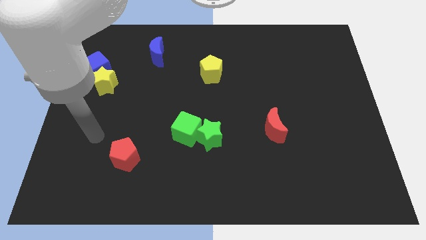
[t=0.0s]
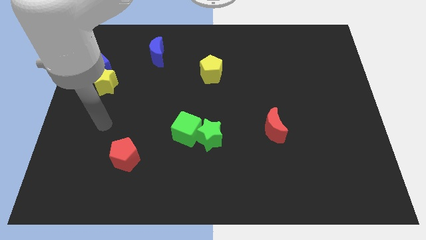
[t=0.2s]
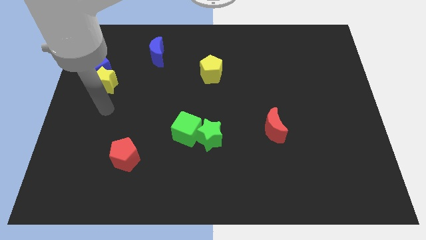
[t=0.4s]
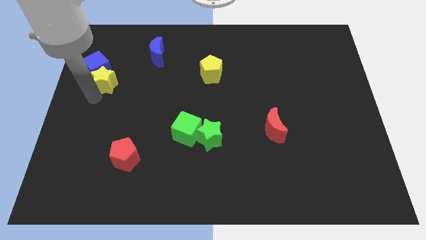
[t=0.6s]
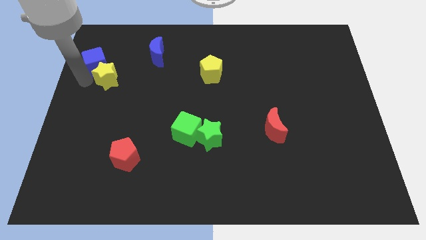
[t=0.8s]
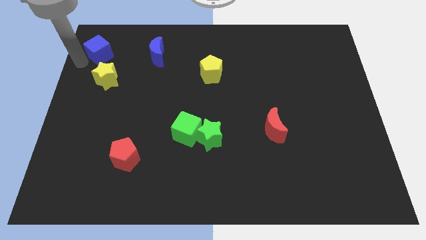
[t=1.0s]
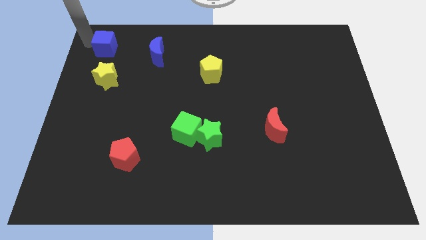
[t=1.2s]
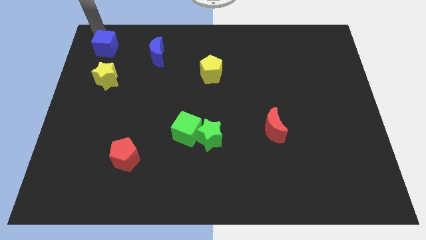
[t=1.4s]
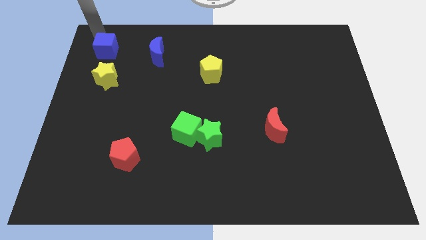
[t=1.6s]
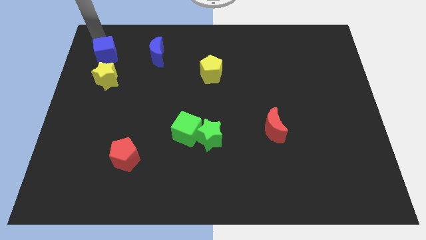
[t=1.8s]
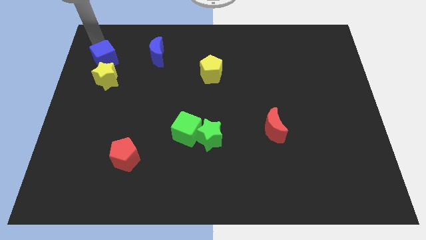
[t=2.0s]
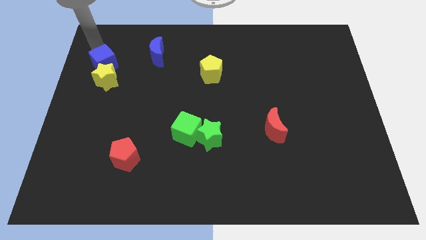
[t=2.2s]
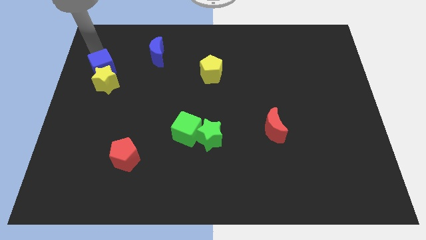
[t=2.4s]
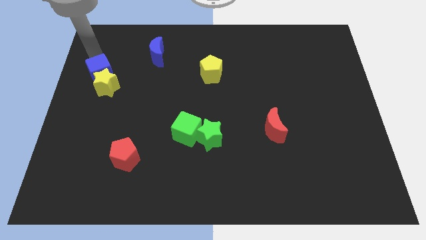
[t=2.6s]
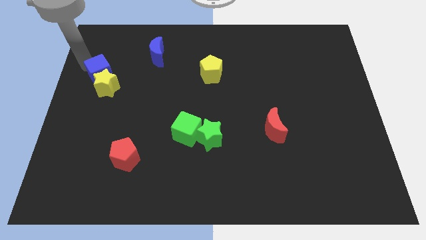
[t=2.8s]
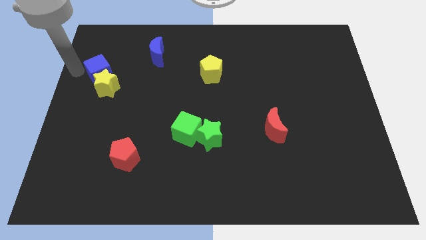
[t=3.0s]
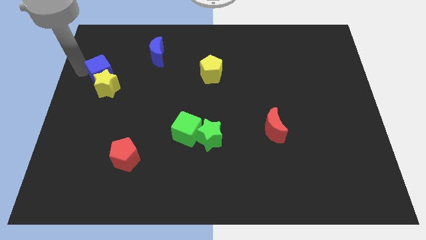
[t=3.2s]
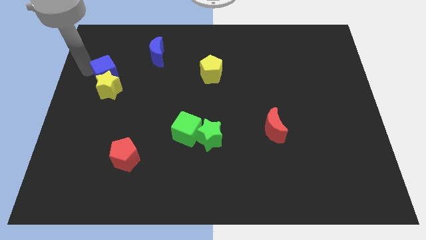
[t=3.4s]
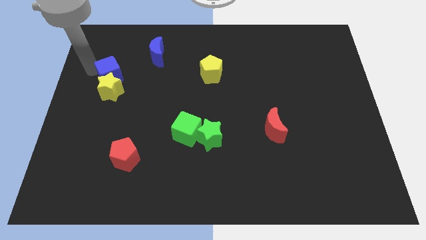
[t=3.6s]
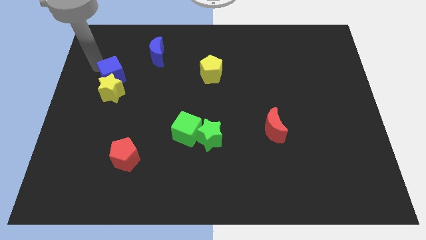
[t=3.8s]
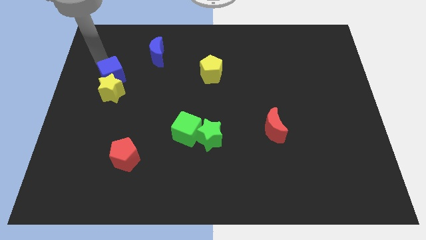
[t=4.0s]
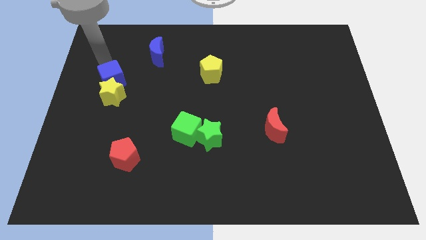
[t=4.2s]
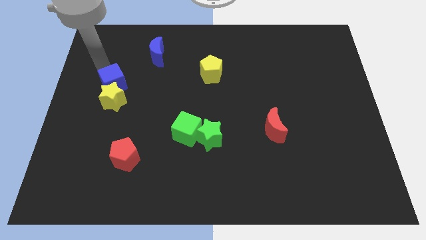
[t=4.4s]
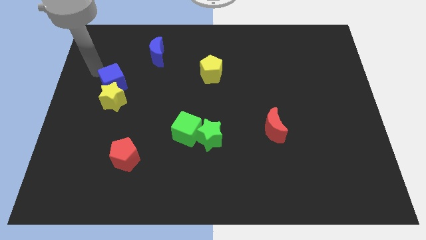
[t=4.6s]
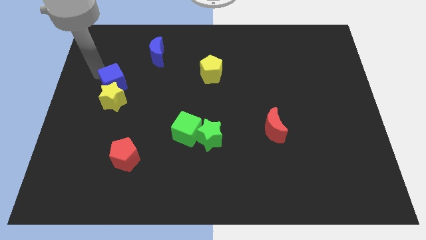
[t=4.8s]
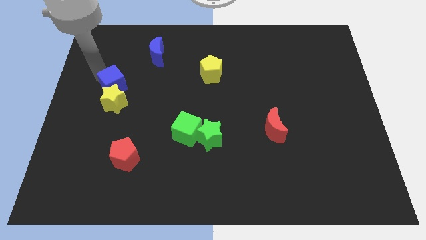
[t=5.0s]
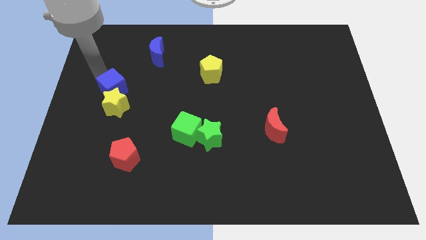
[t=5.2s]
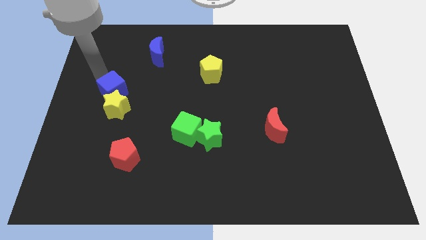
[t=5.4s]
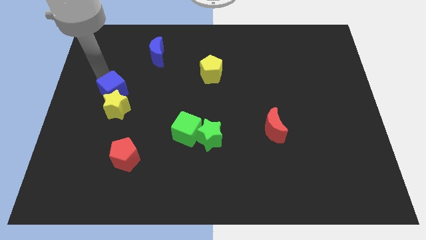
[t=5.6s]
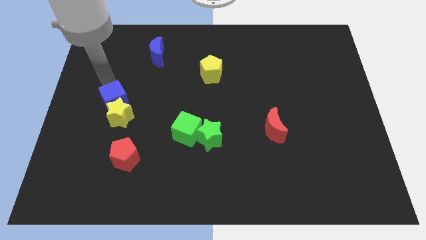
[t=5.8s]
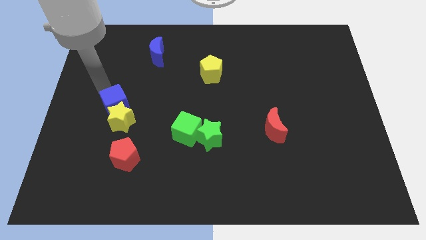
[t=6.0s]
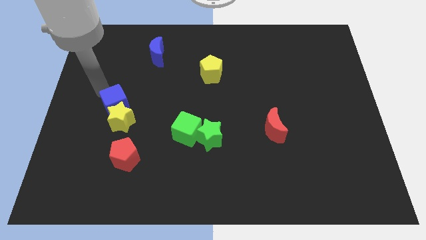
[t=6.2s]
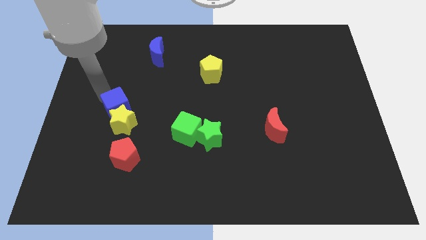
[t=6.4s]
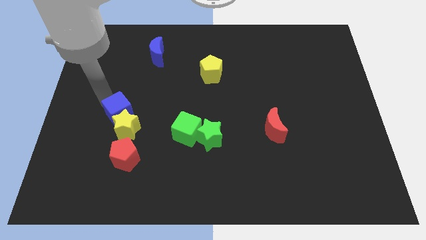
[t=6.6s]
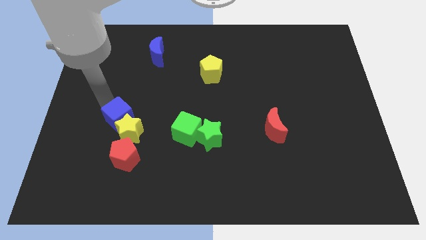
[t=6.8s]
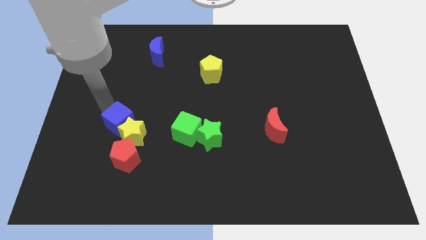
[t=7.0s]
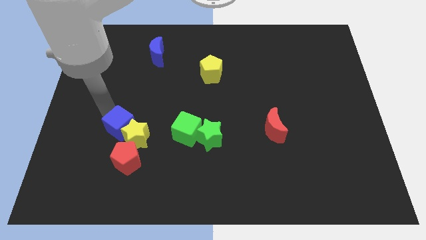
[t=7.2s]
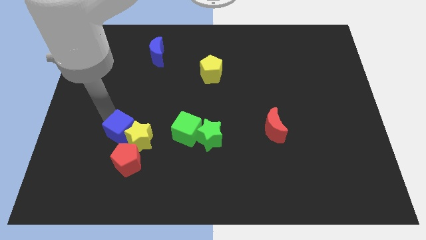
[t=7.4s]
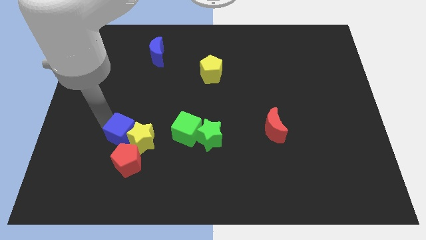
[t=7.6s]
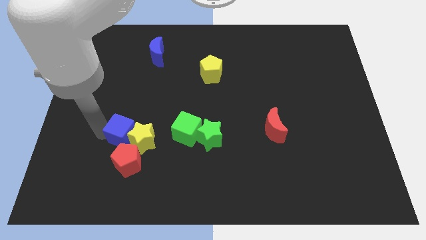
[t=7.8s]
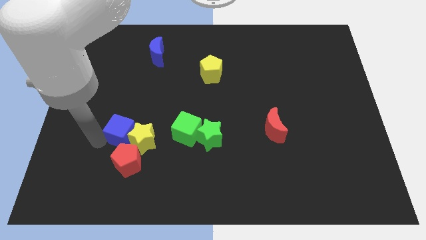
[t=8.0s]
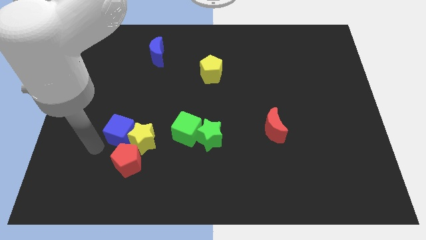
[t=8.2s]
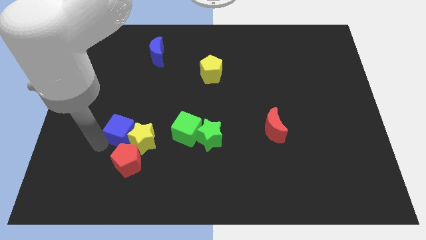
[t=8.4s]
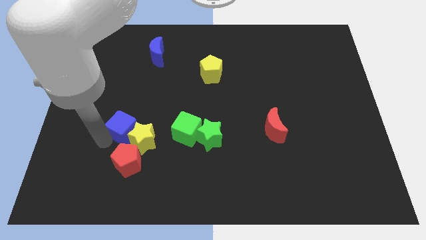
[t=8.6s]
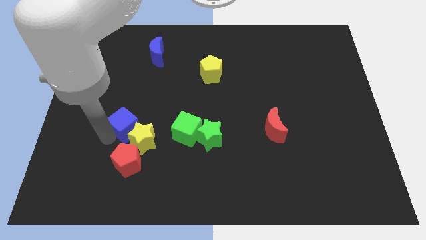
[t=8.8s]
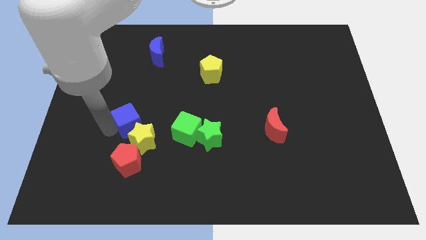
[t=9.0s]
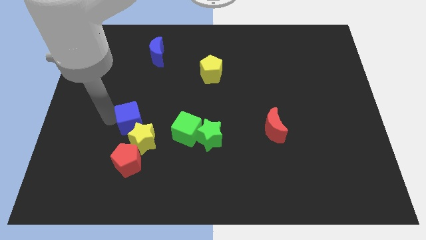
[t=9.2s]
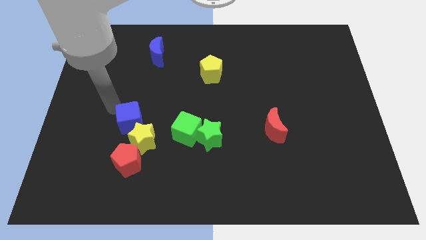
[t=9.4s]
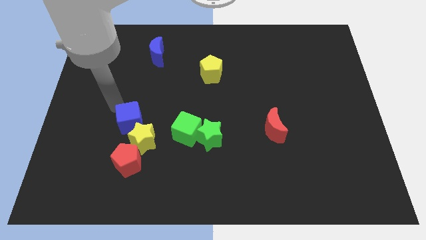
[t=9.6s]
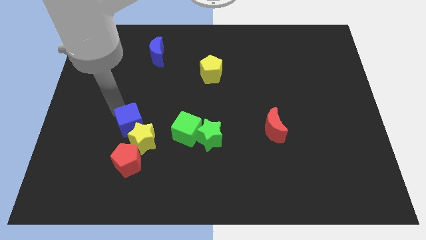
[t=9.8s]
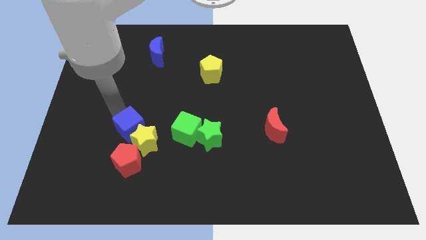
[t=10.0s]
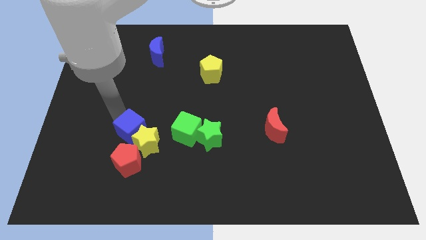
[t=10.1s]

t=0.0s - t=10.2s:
push the blue cube down and right

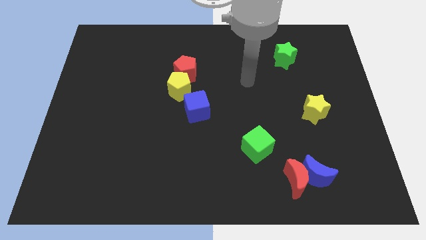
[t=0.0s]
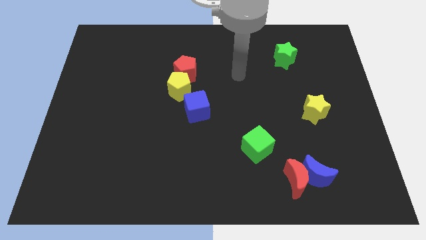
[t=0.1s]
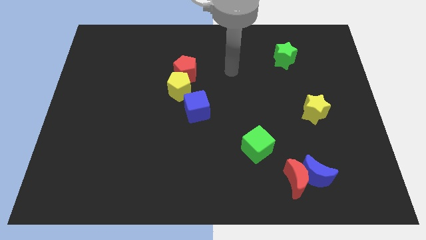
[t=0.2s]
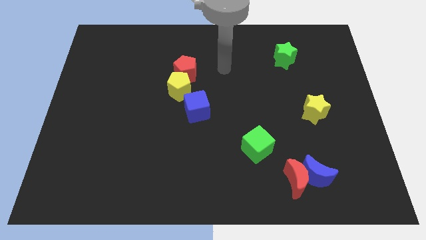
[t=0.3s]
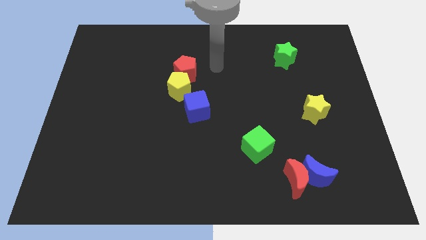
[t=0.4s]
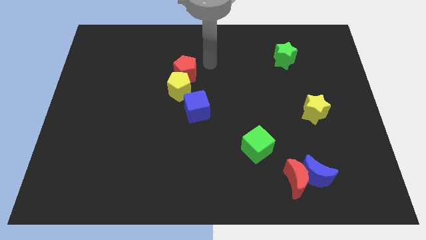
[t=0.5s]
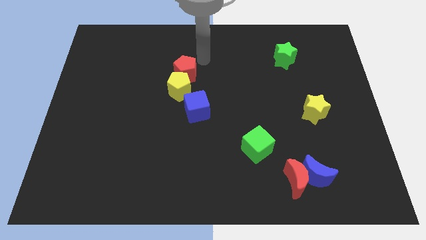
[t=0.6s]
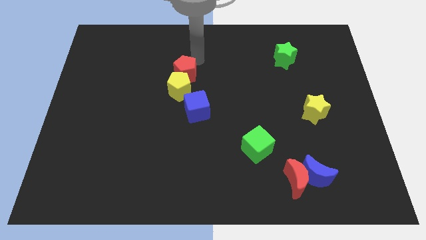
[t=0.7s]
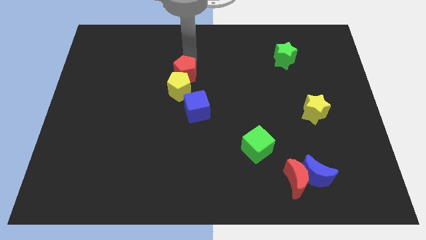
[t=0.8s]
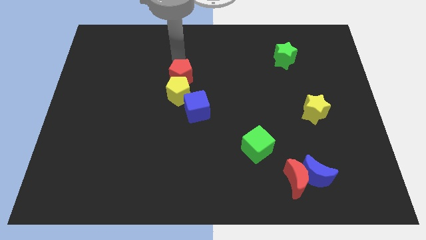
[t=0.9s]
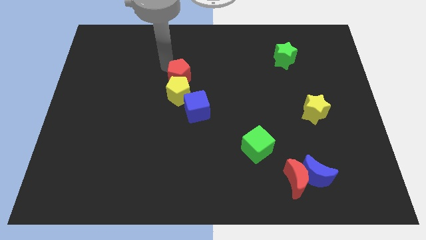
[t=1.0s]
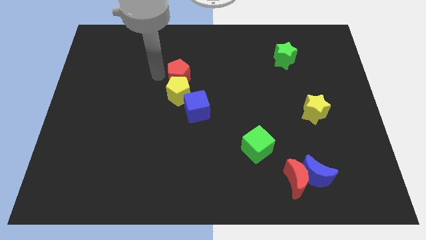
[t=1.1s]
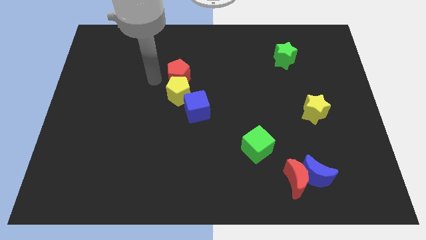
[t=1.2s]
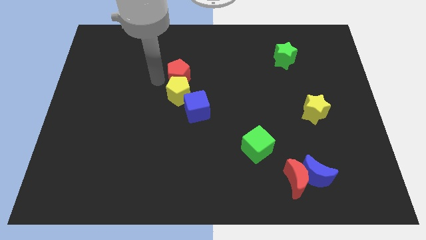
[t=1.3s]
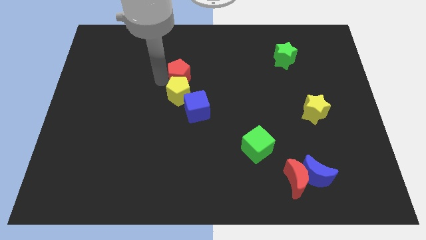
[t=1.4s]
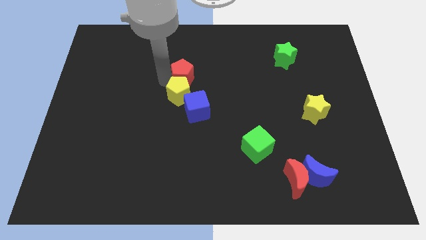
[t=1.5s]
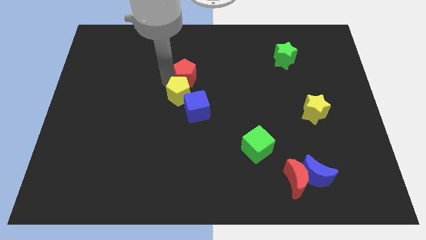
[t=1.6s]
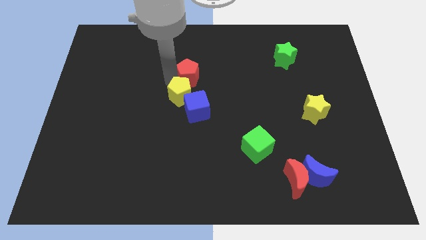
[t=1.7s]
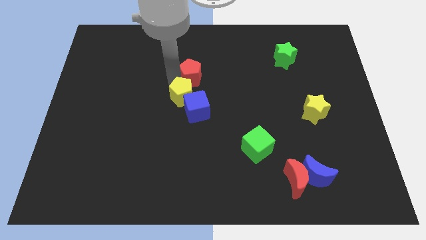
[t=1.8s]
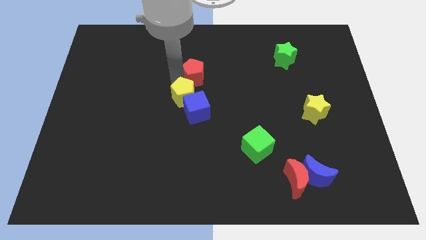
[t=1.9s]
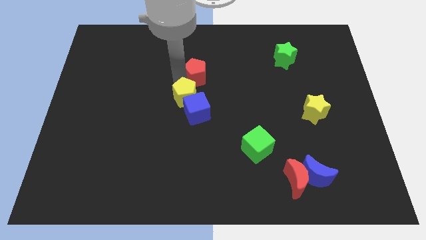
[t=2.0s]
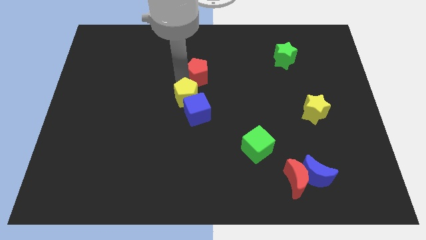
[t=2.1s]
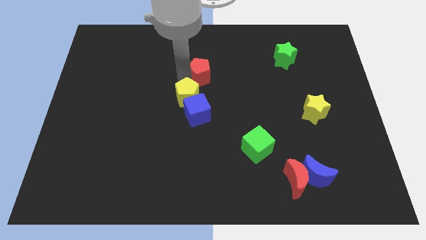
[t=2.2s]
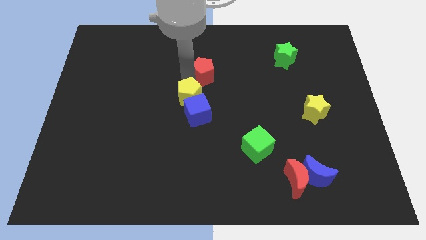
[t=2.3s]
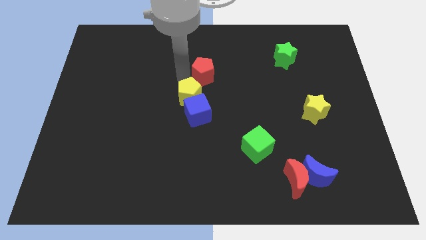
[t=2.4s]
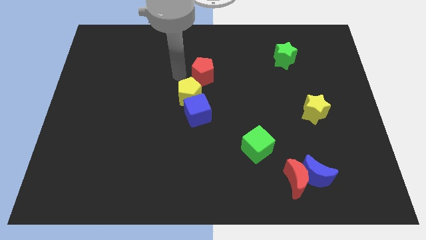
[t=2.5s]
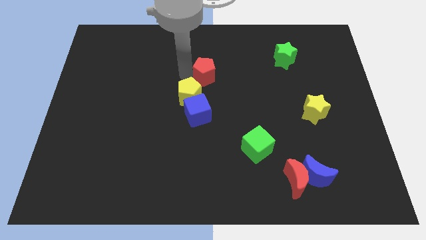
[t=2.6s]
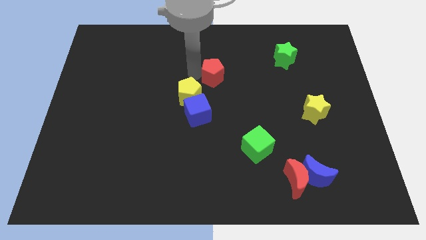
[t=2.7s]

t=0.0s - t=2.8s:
slightly move the red pentagon right

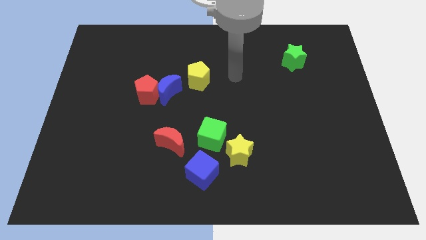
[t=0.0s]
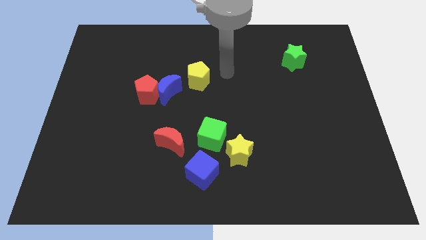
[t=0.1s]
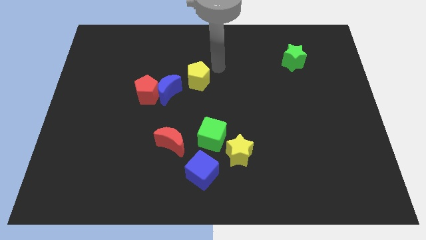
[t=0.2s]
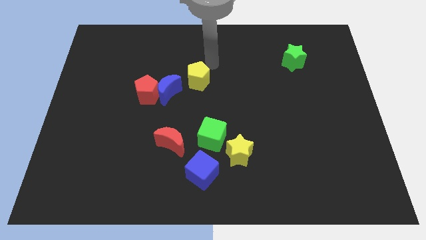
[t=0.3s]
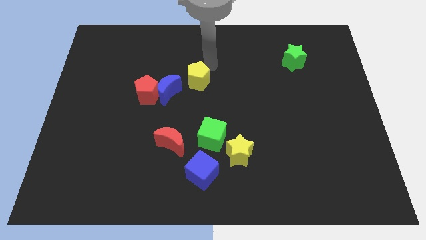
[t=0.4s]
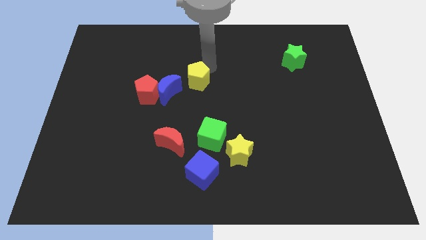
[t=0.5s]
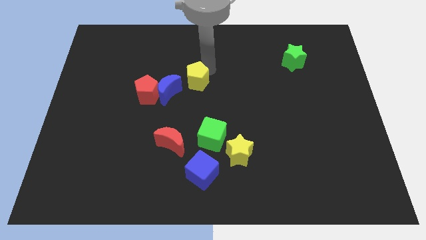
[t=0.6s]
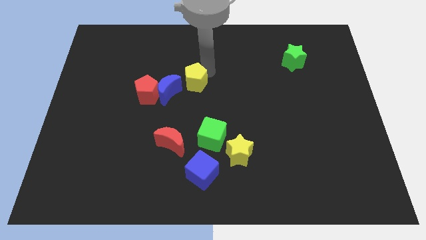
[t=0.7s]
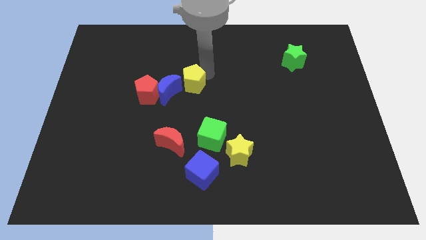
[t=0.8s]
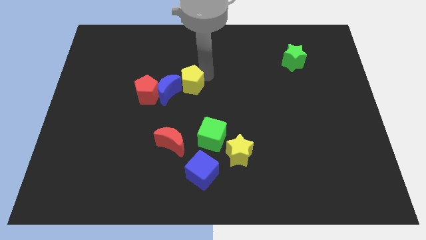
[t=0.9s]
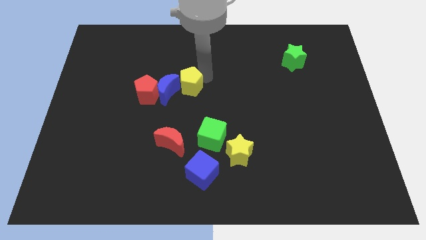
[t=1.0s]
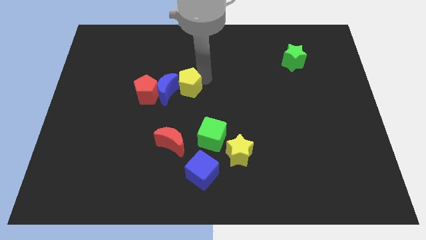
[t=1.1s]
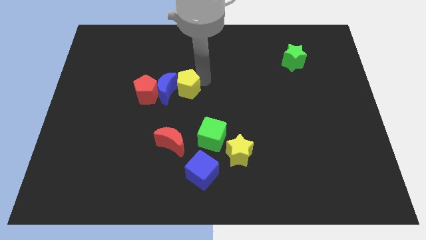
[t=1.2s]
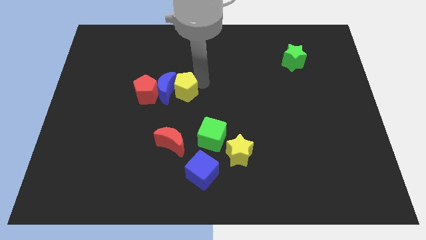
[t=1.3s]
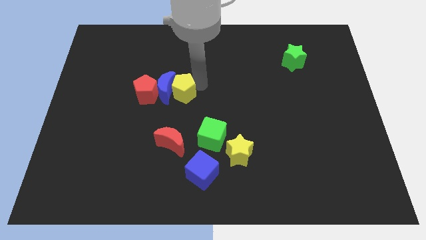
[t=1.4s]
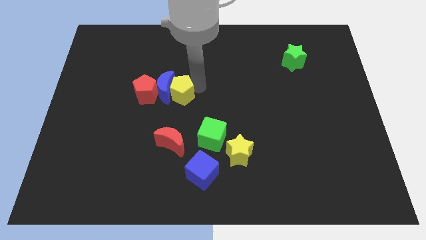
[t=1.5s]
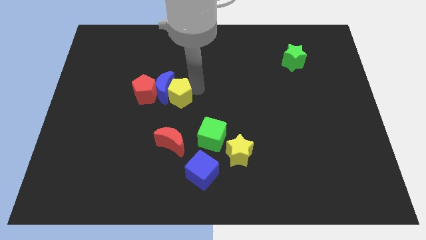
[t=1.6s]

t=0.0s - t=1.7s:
slide the yellow pentagon a bit diagonally downwards and left
